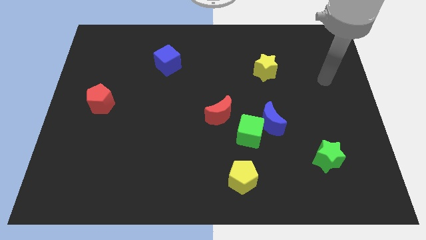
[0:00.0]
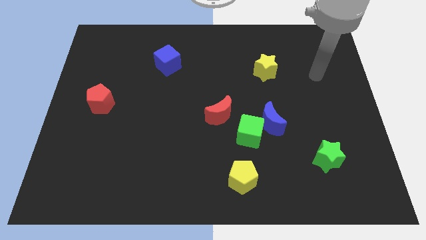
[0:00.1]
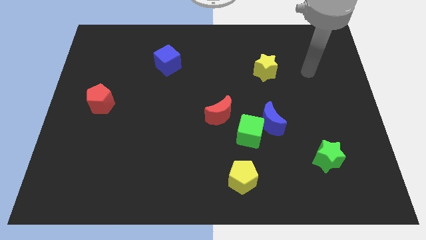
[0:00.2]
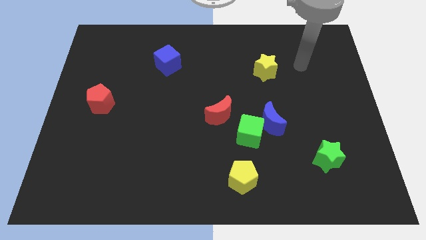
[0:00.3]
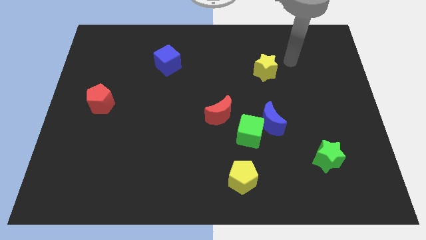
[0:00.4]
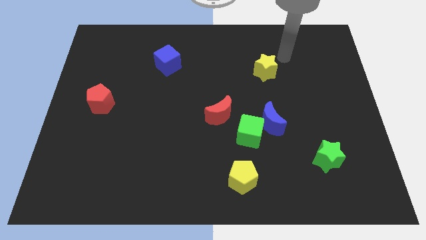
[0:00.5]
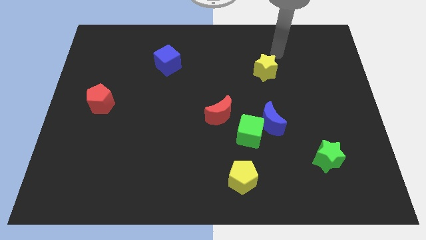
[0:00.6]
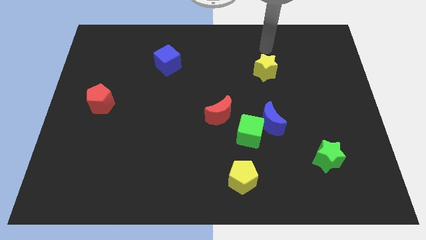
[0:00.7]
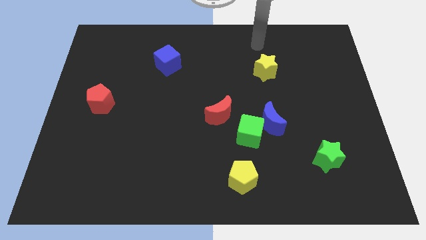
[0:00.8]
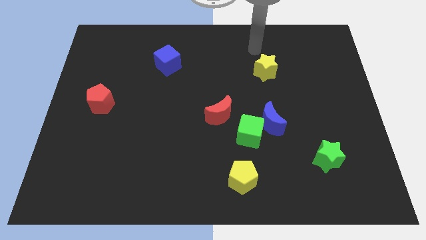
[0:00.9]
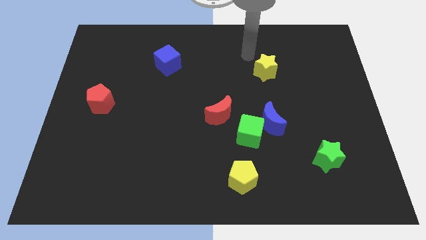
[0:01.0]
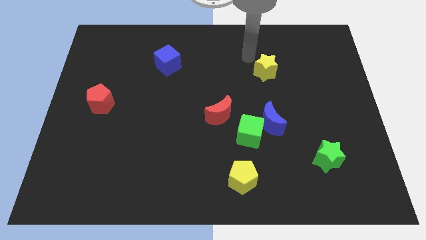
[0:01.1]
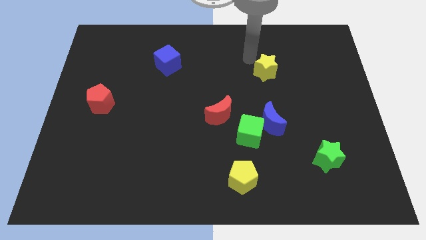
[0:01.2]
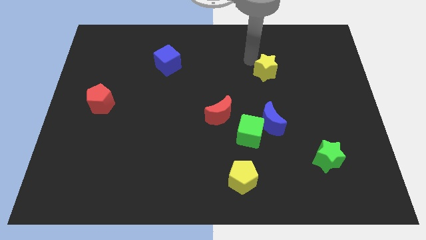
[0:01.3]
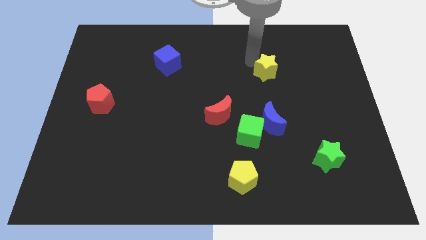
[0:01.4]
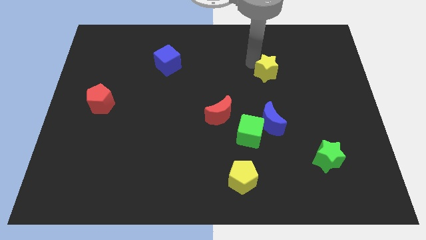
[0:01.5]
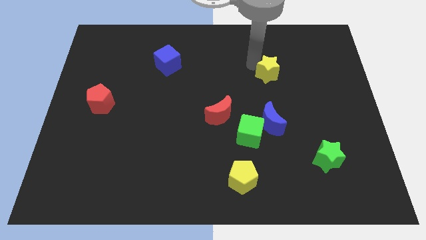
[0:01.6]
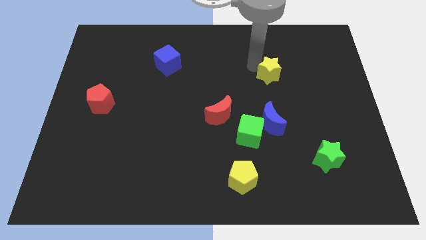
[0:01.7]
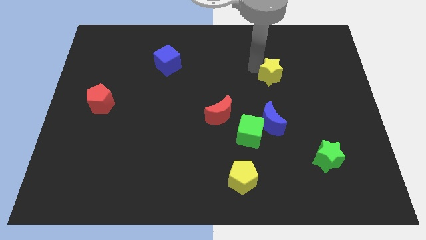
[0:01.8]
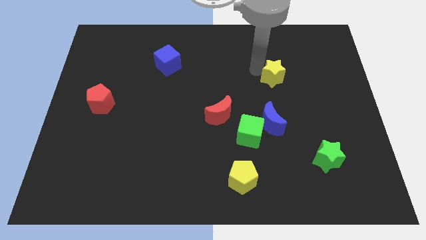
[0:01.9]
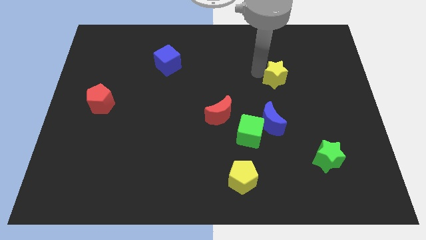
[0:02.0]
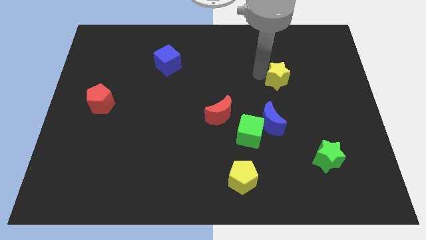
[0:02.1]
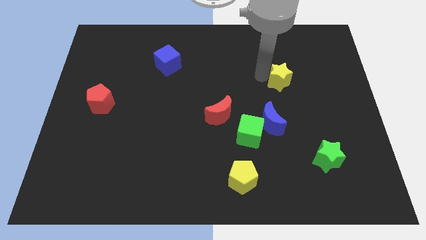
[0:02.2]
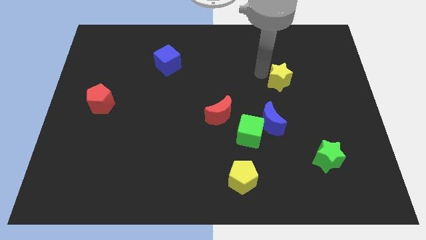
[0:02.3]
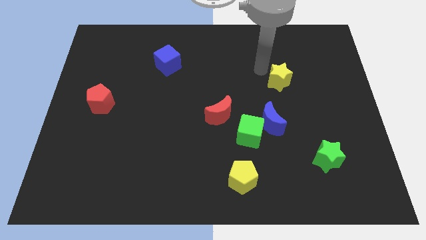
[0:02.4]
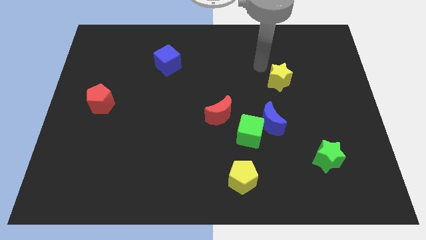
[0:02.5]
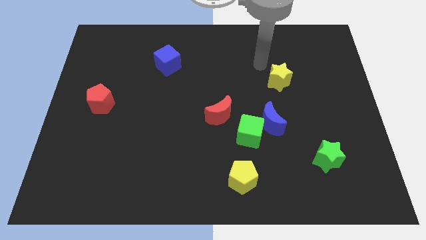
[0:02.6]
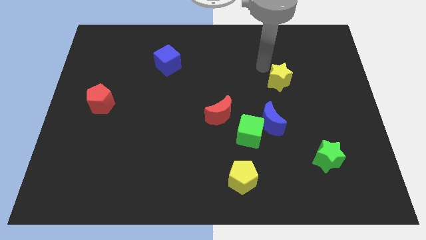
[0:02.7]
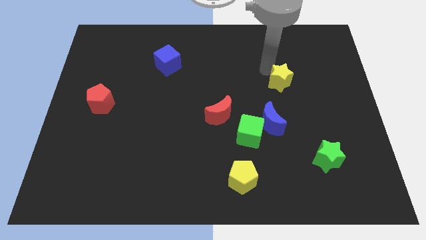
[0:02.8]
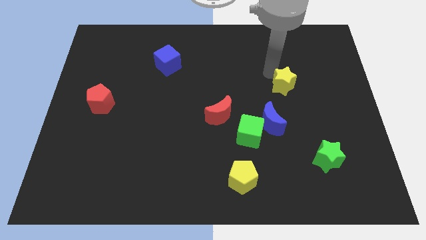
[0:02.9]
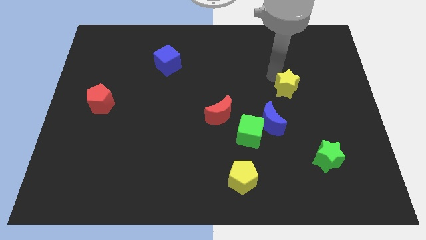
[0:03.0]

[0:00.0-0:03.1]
slightly move the yellow star diagonally down and to the right

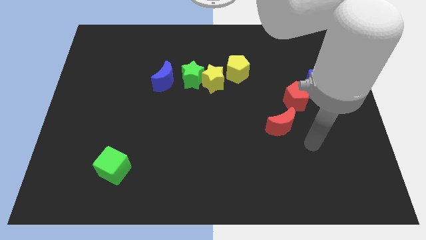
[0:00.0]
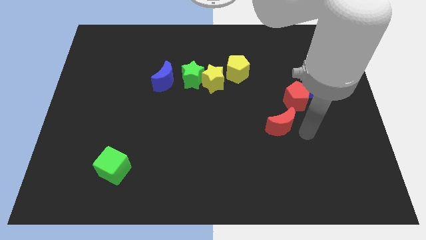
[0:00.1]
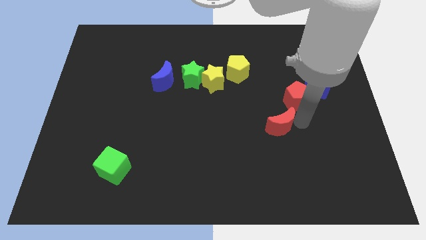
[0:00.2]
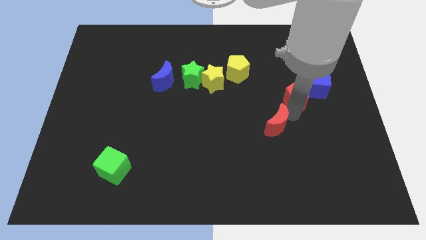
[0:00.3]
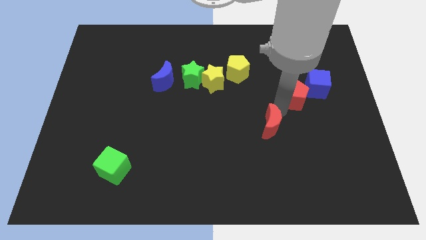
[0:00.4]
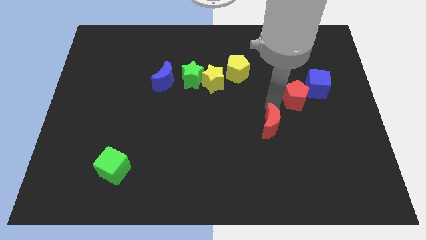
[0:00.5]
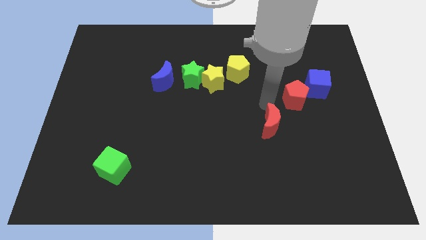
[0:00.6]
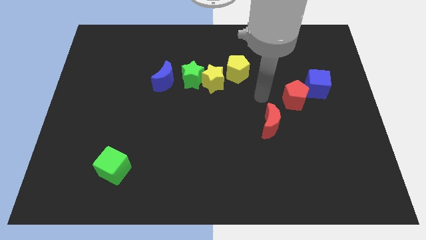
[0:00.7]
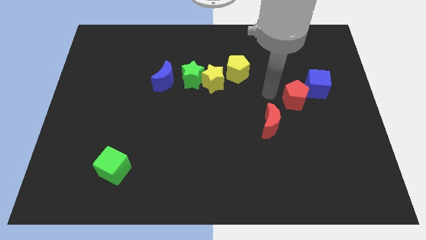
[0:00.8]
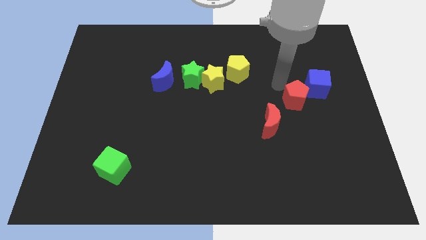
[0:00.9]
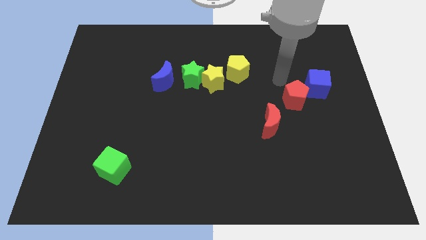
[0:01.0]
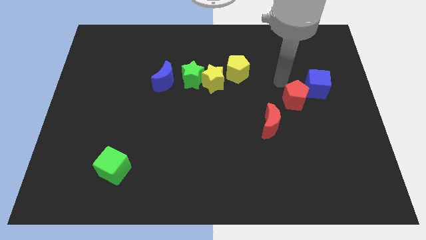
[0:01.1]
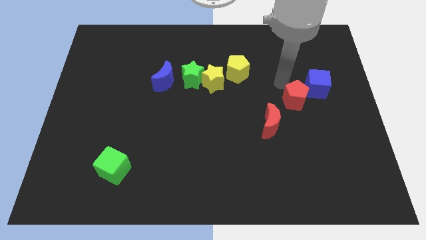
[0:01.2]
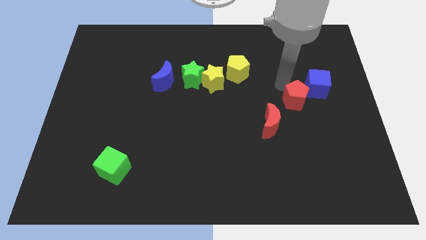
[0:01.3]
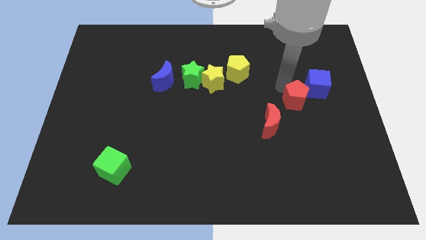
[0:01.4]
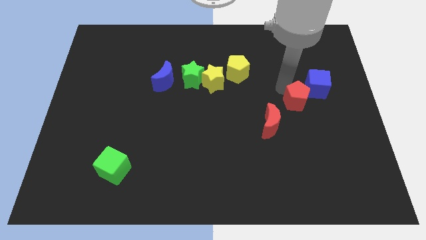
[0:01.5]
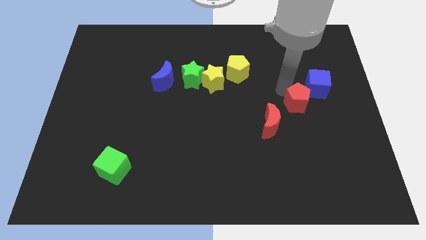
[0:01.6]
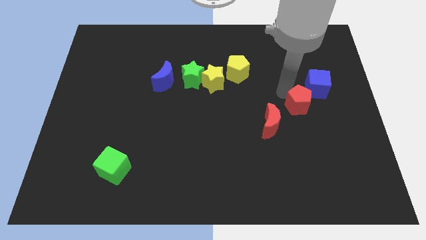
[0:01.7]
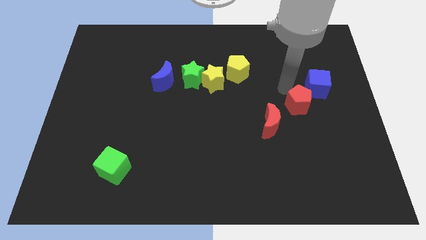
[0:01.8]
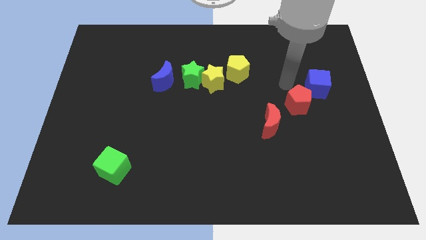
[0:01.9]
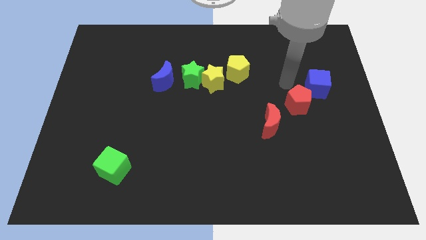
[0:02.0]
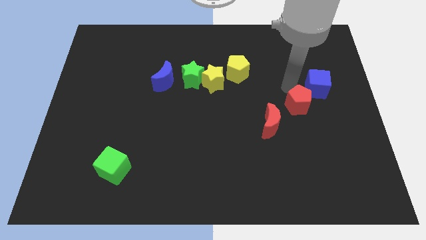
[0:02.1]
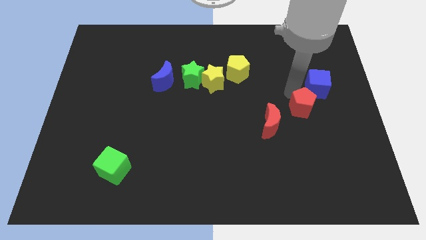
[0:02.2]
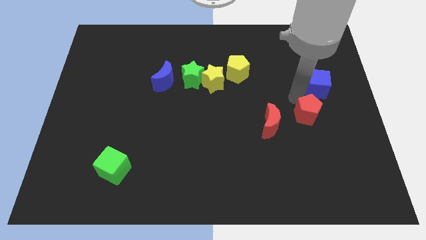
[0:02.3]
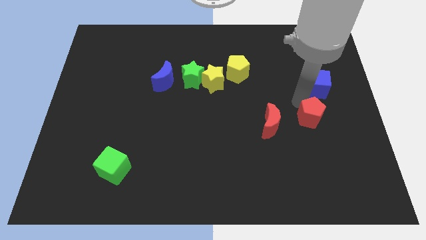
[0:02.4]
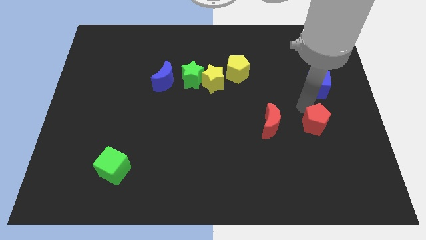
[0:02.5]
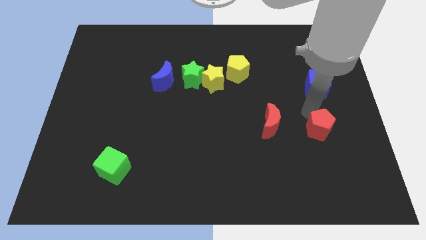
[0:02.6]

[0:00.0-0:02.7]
slightly slide the red pentagon downwards

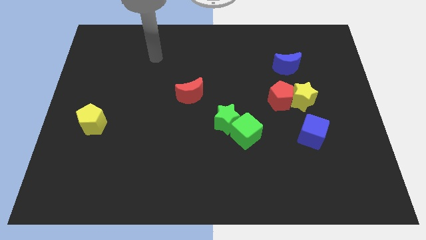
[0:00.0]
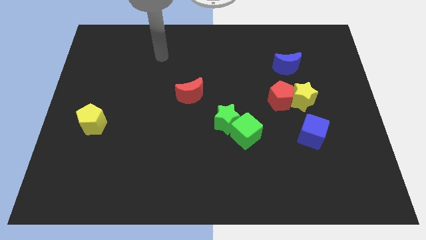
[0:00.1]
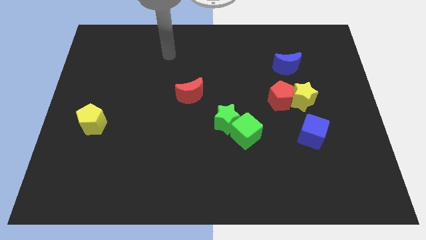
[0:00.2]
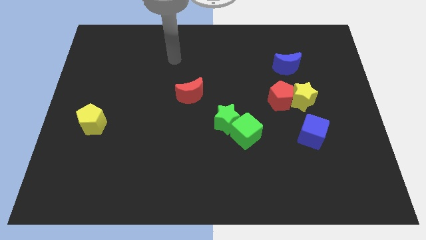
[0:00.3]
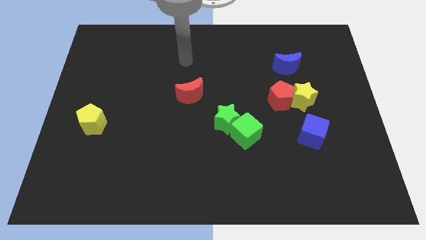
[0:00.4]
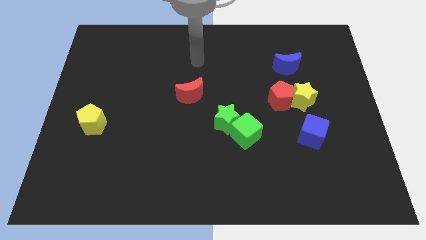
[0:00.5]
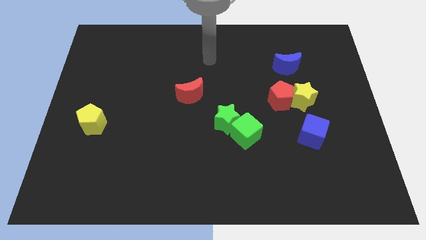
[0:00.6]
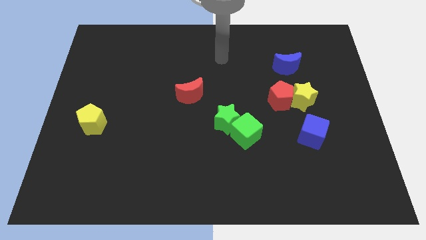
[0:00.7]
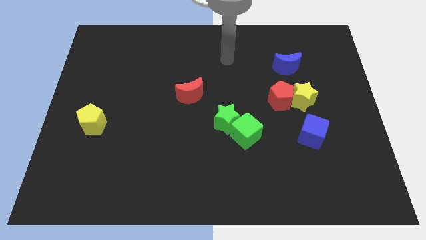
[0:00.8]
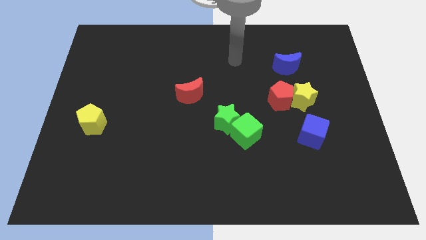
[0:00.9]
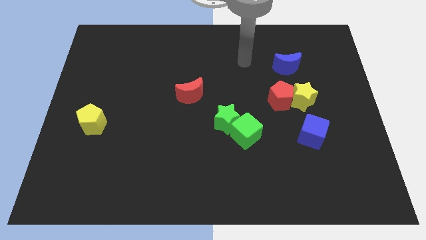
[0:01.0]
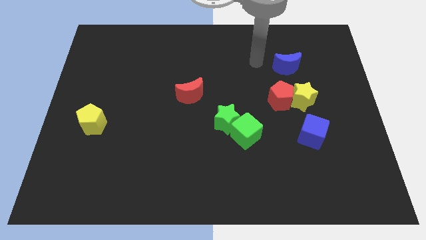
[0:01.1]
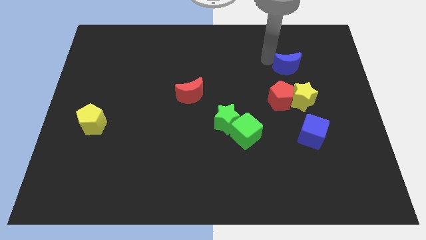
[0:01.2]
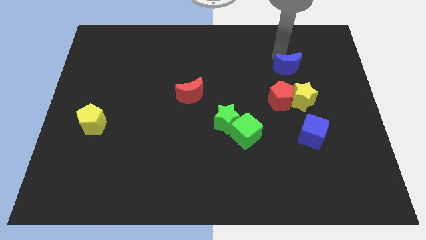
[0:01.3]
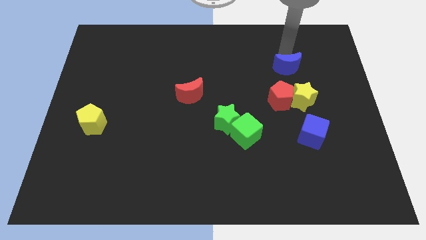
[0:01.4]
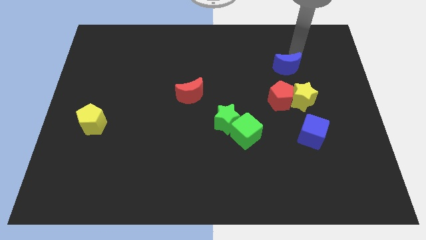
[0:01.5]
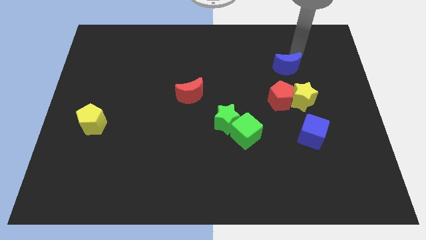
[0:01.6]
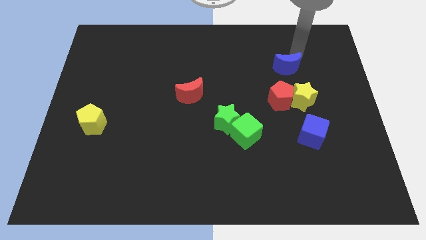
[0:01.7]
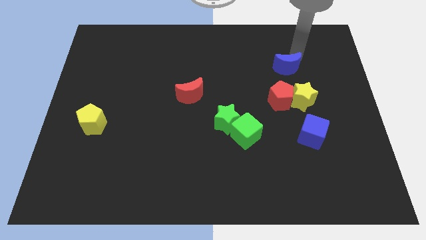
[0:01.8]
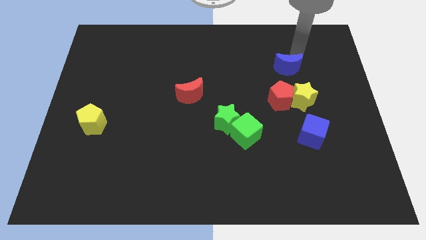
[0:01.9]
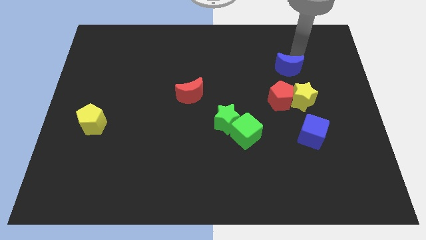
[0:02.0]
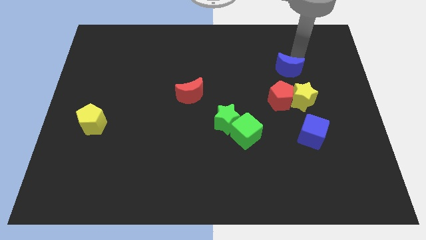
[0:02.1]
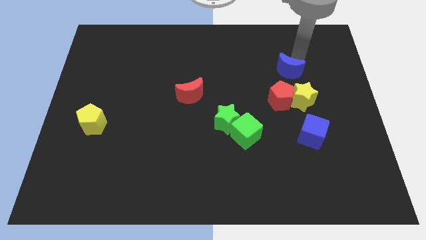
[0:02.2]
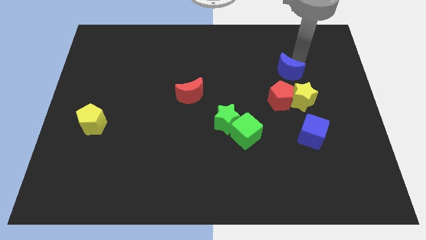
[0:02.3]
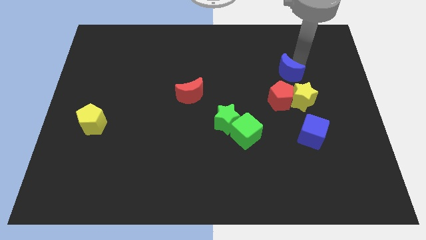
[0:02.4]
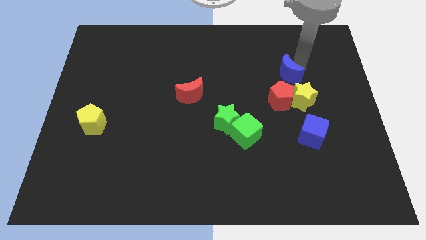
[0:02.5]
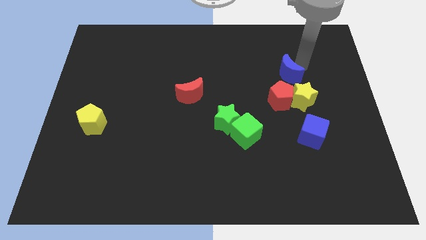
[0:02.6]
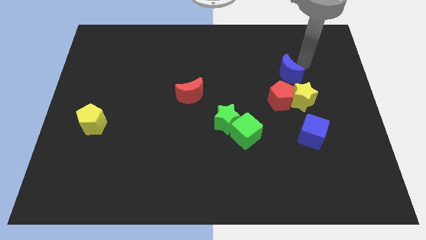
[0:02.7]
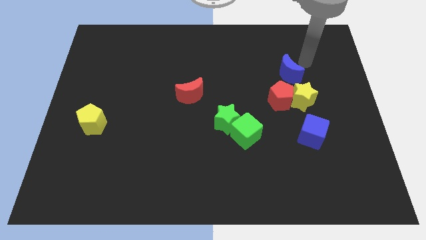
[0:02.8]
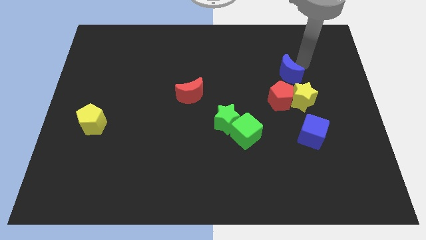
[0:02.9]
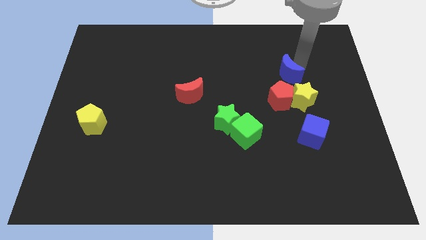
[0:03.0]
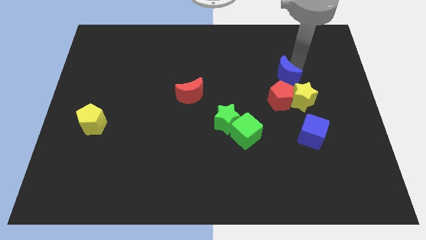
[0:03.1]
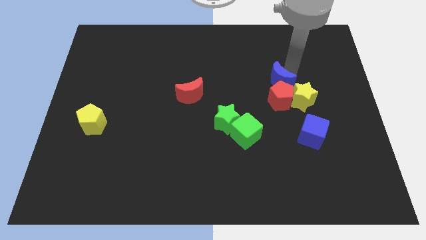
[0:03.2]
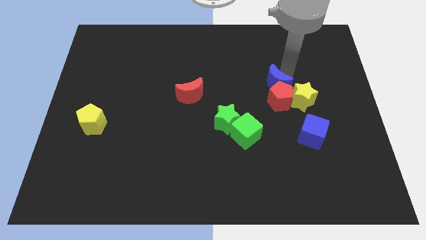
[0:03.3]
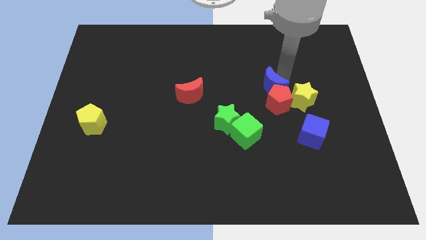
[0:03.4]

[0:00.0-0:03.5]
move the blue moon a bit downwards and to the left diagonally
